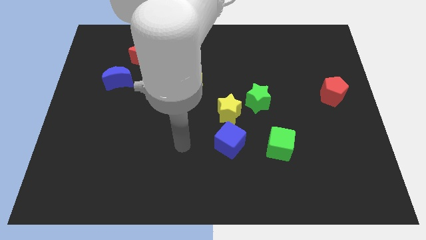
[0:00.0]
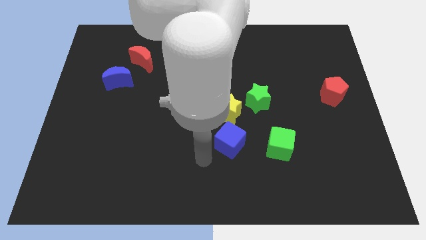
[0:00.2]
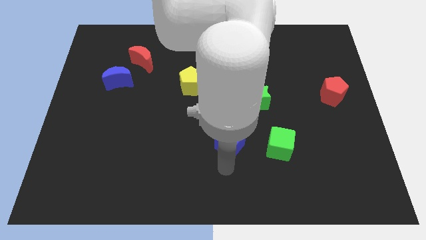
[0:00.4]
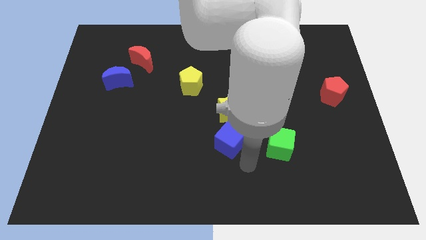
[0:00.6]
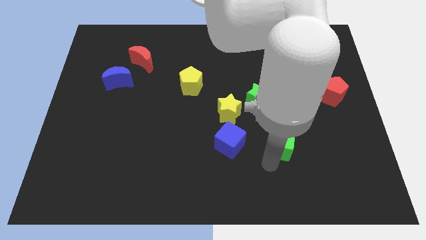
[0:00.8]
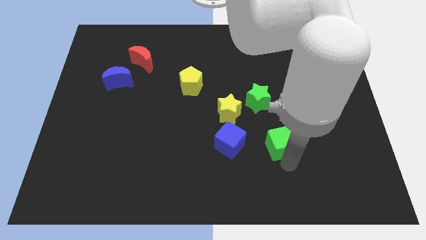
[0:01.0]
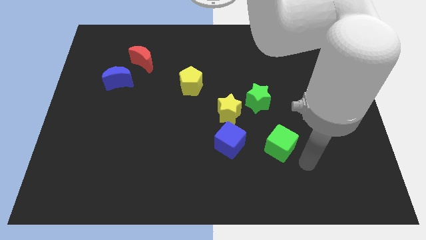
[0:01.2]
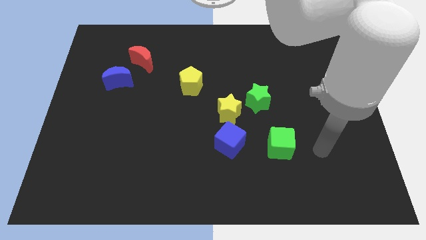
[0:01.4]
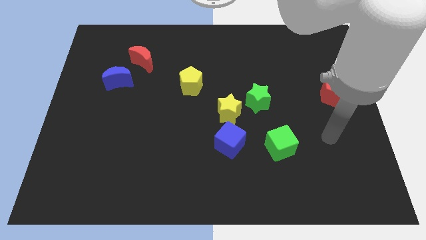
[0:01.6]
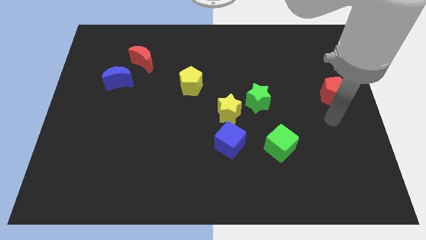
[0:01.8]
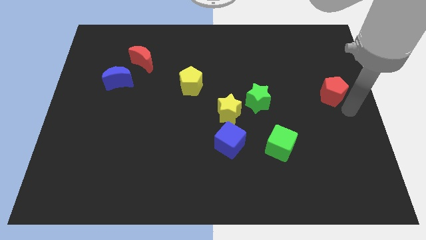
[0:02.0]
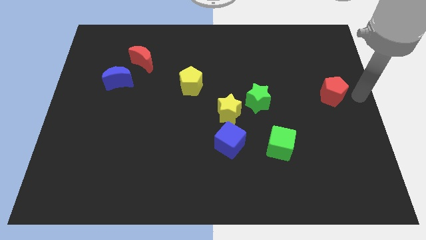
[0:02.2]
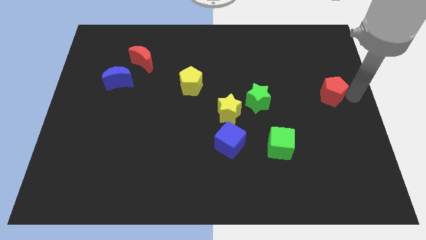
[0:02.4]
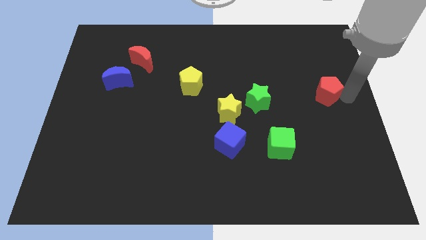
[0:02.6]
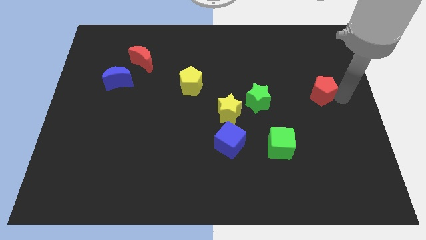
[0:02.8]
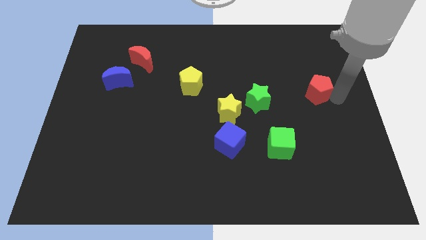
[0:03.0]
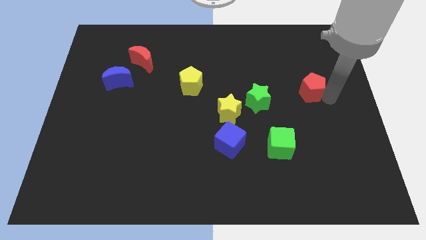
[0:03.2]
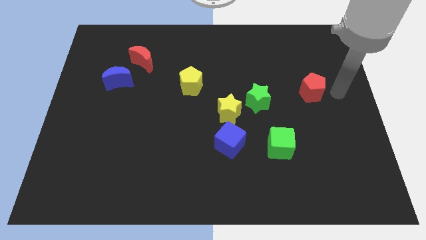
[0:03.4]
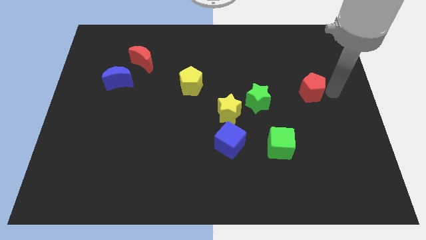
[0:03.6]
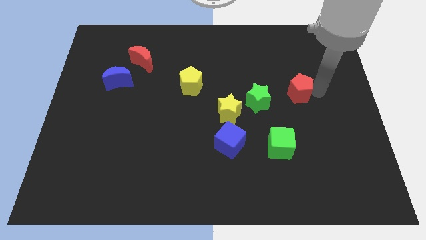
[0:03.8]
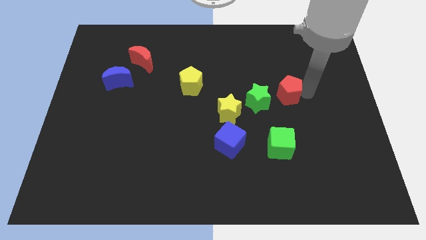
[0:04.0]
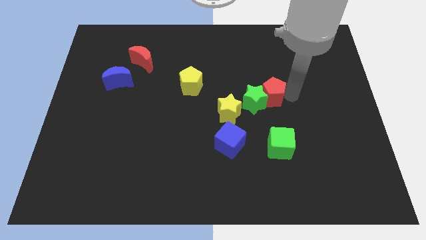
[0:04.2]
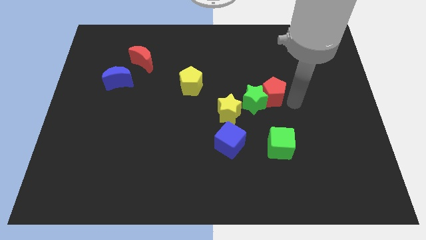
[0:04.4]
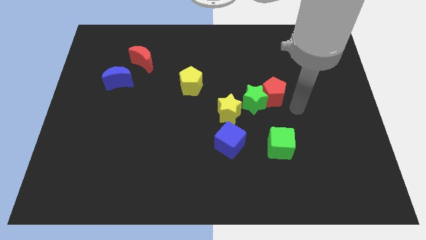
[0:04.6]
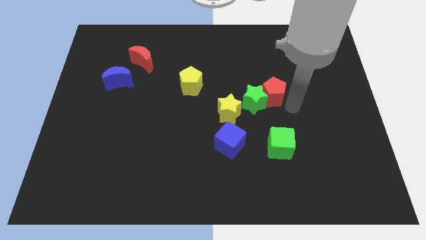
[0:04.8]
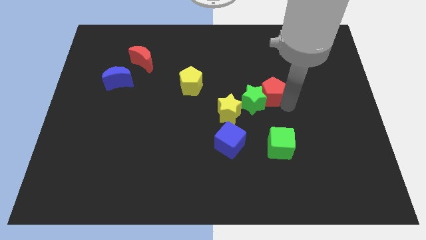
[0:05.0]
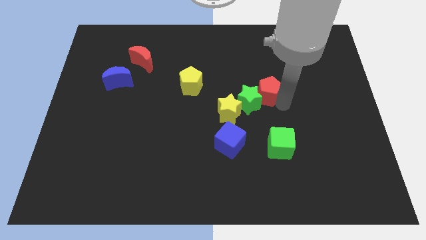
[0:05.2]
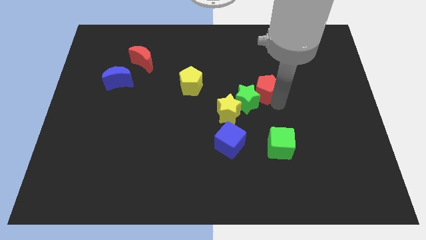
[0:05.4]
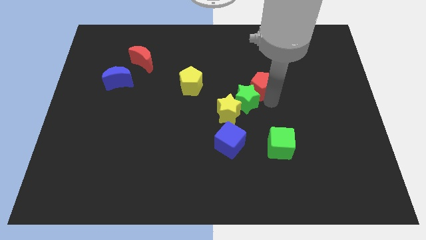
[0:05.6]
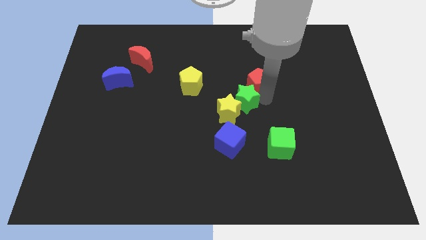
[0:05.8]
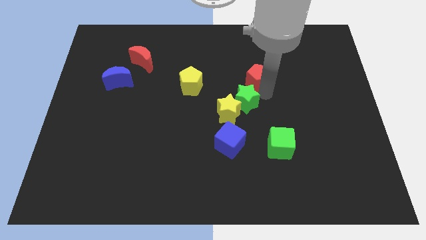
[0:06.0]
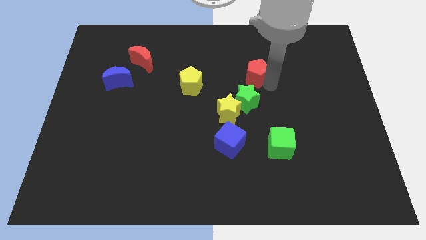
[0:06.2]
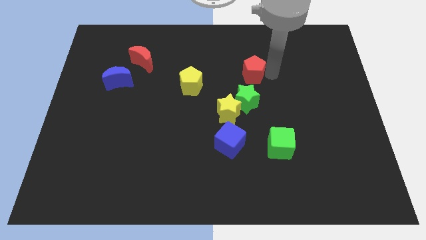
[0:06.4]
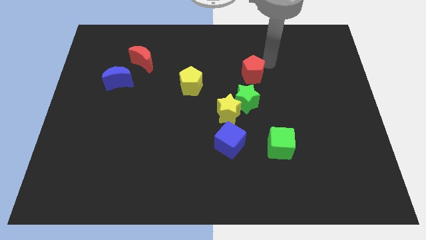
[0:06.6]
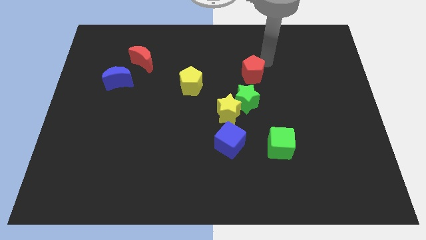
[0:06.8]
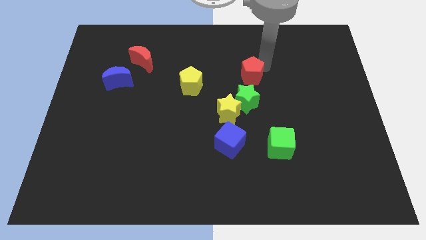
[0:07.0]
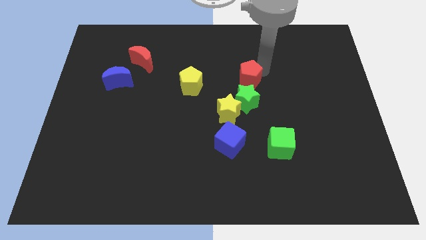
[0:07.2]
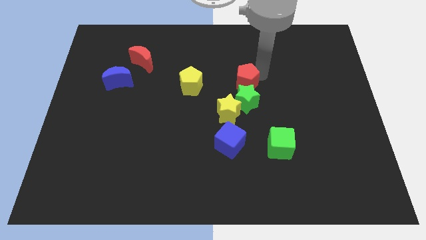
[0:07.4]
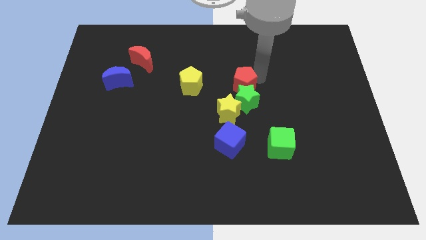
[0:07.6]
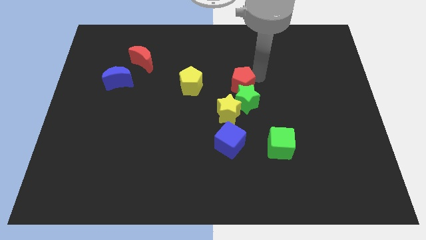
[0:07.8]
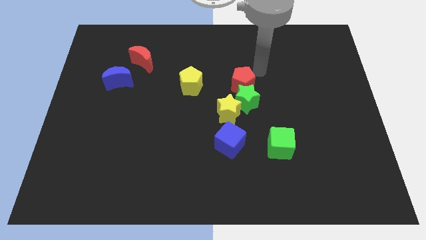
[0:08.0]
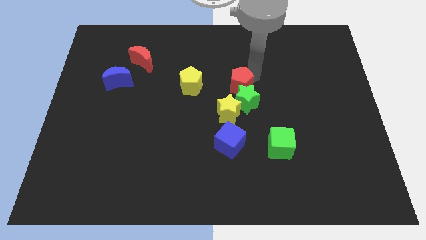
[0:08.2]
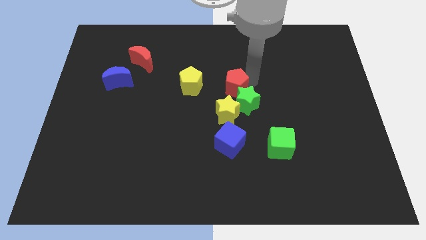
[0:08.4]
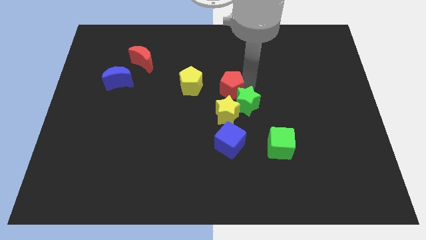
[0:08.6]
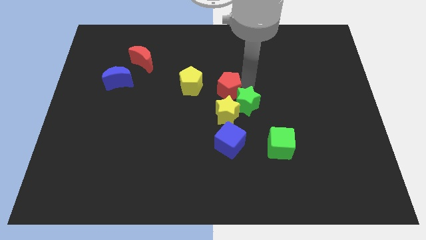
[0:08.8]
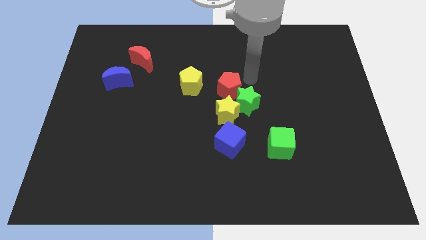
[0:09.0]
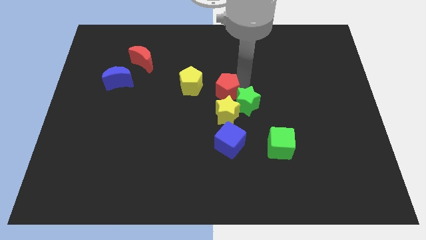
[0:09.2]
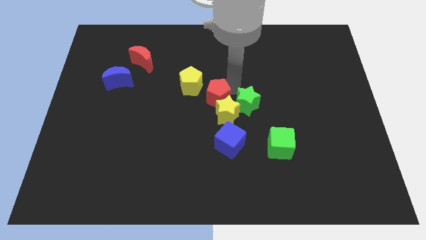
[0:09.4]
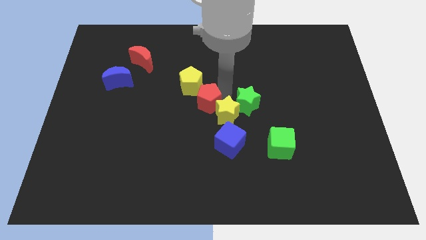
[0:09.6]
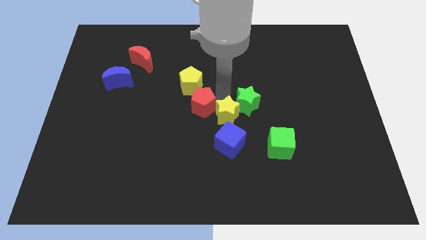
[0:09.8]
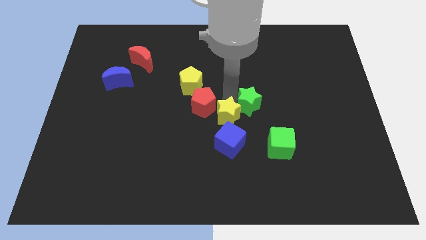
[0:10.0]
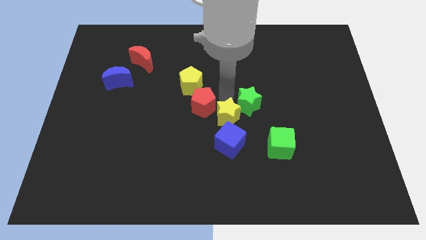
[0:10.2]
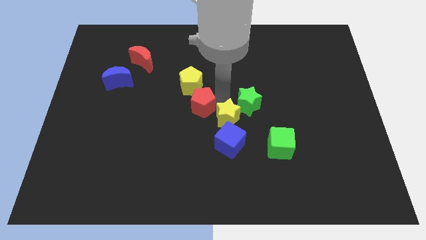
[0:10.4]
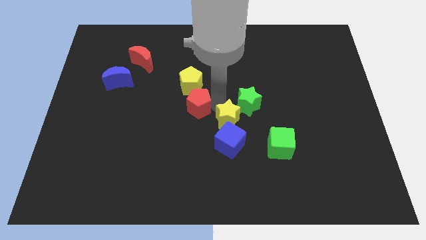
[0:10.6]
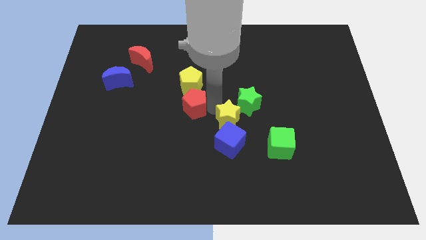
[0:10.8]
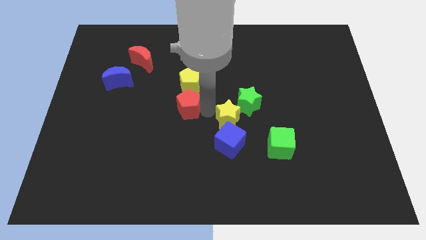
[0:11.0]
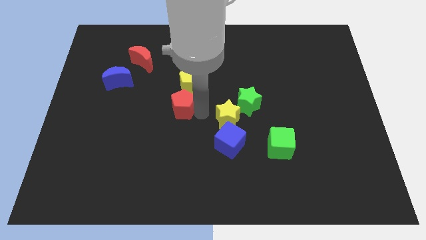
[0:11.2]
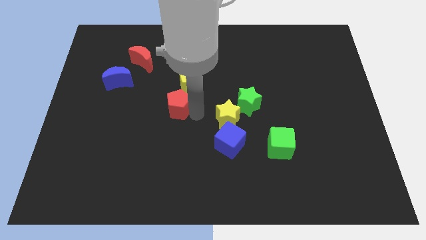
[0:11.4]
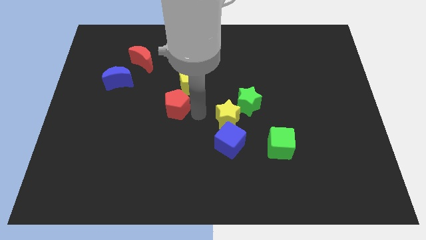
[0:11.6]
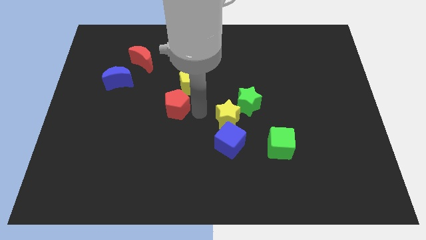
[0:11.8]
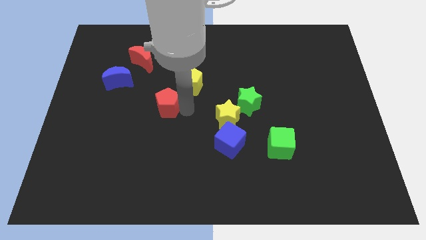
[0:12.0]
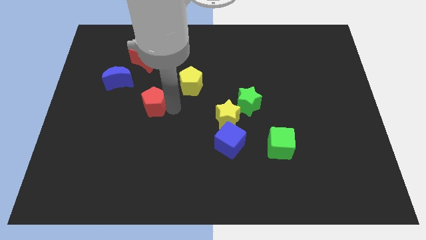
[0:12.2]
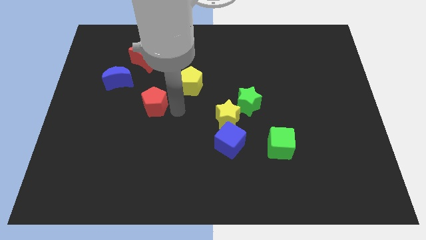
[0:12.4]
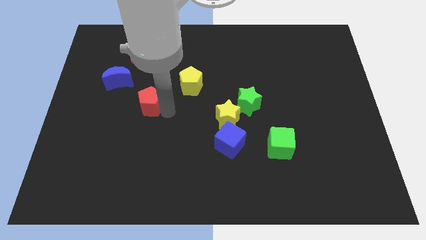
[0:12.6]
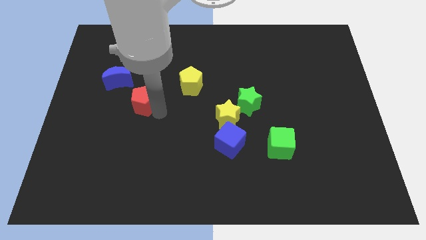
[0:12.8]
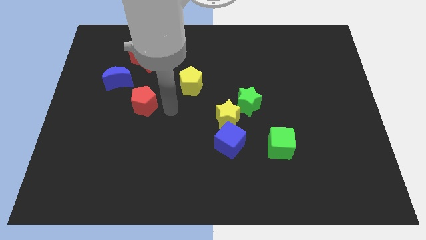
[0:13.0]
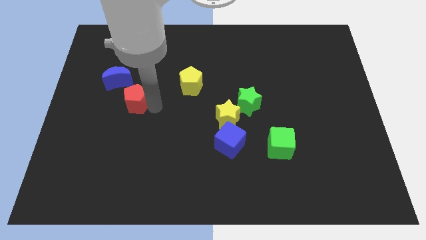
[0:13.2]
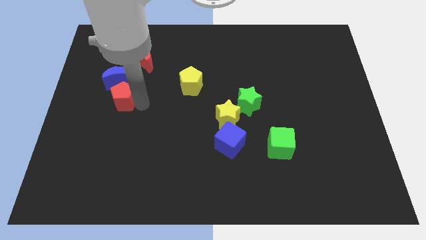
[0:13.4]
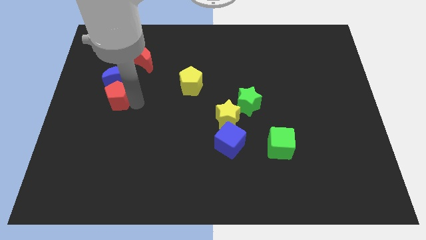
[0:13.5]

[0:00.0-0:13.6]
push the red pentagon to the bottom left of the blue moon
